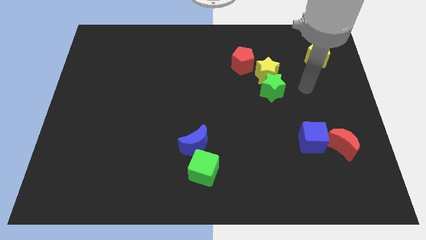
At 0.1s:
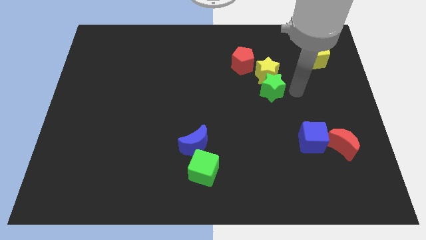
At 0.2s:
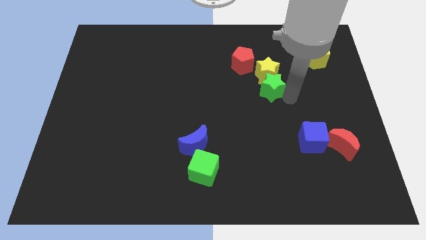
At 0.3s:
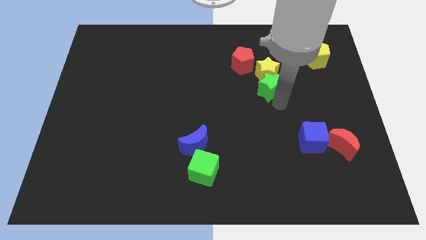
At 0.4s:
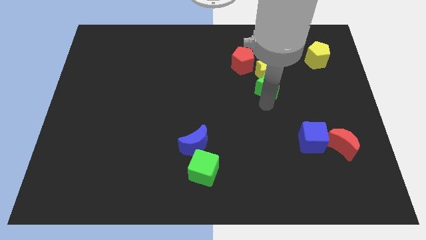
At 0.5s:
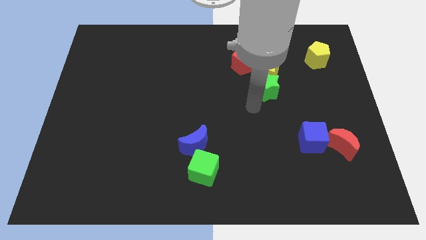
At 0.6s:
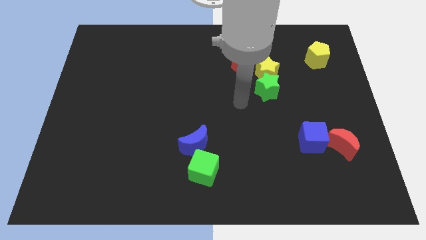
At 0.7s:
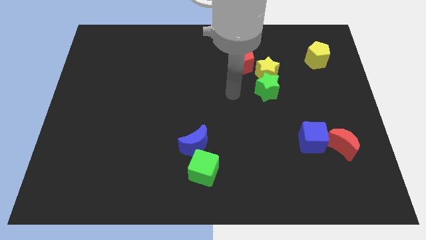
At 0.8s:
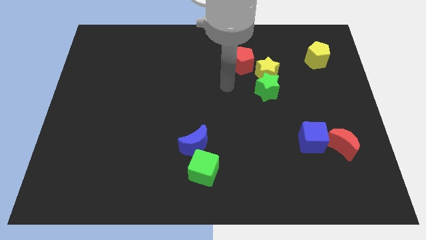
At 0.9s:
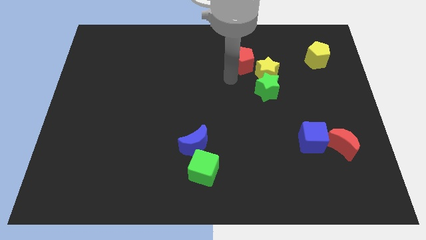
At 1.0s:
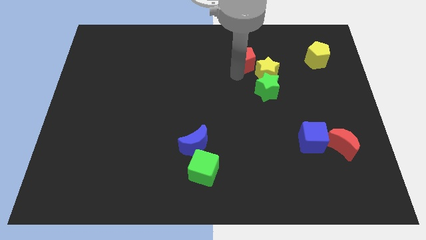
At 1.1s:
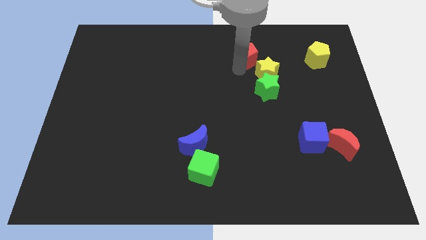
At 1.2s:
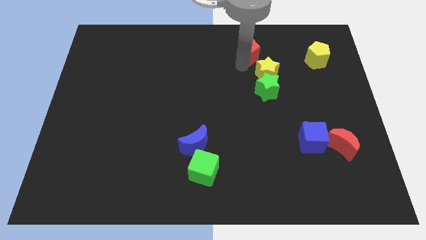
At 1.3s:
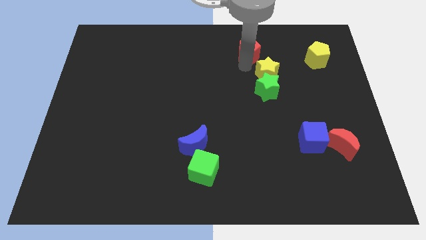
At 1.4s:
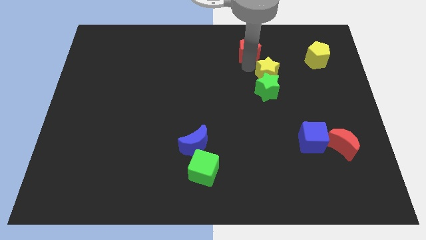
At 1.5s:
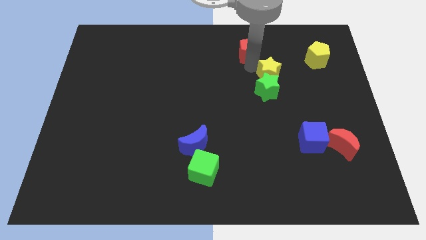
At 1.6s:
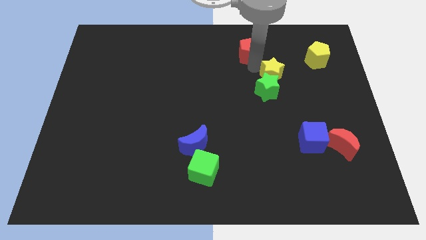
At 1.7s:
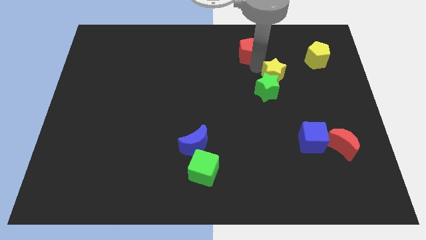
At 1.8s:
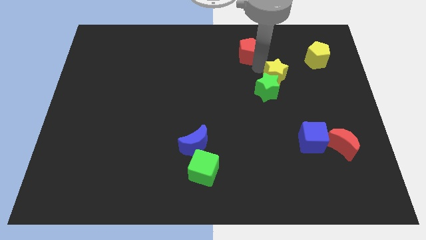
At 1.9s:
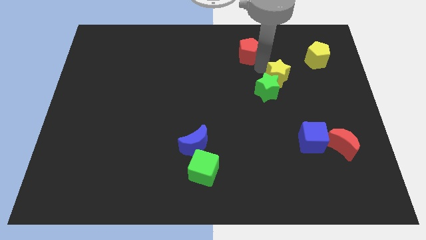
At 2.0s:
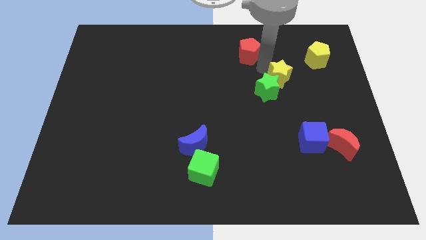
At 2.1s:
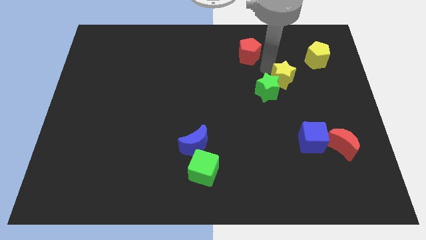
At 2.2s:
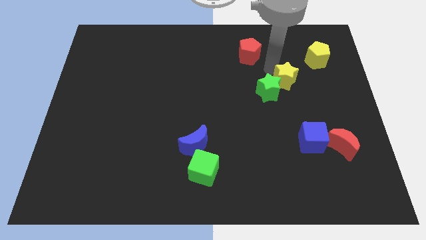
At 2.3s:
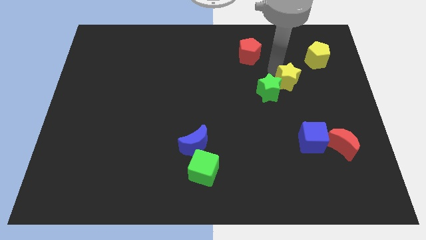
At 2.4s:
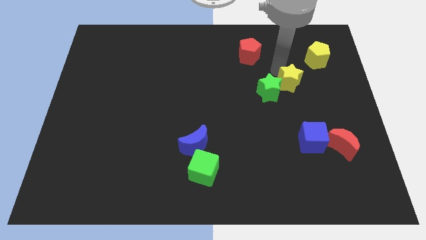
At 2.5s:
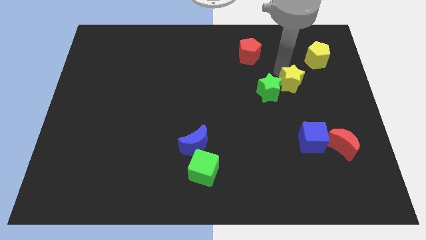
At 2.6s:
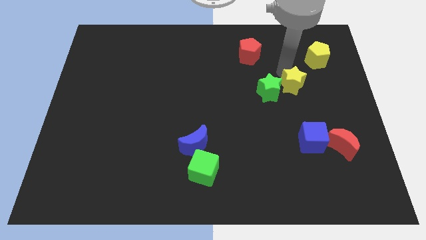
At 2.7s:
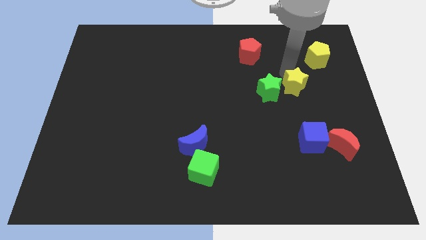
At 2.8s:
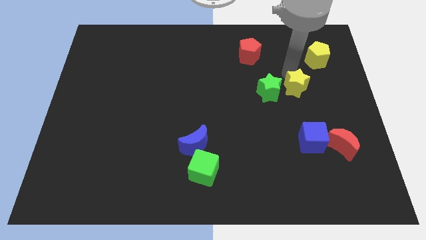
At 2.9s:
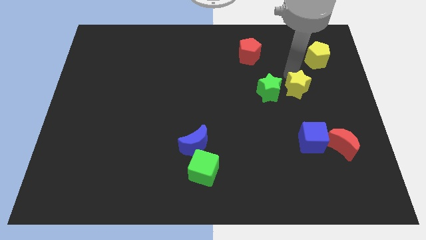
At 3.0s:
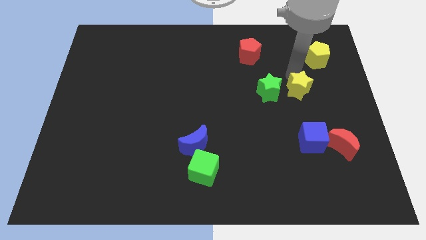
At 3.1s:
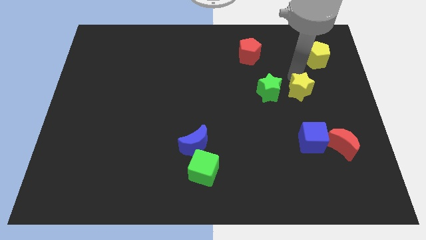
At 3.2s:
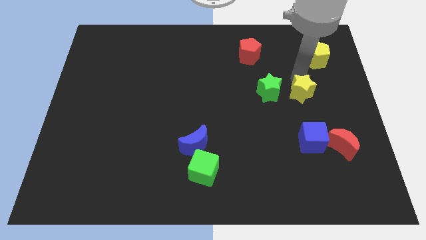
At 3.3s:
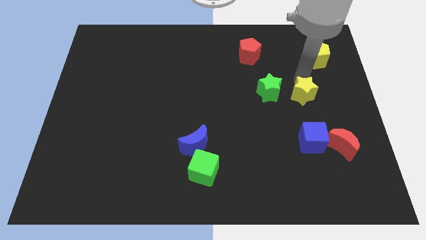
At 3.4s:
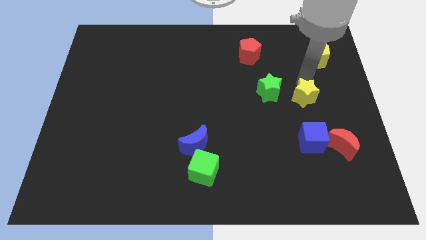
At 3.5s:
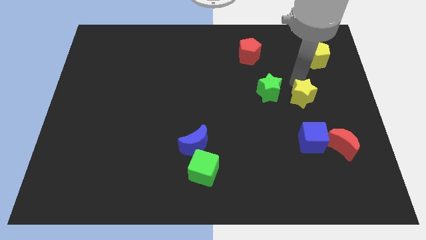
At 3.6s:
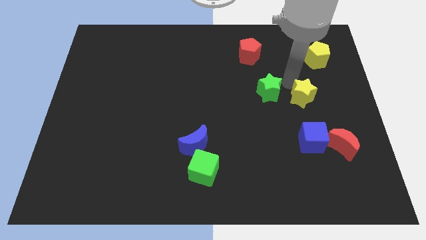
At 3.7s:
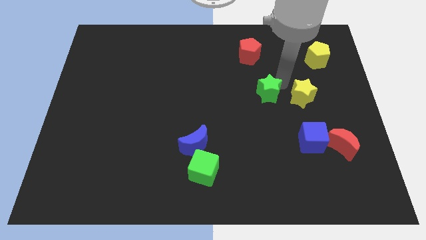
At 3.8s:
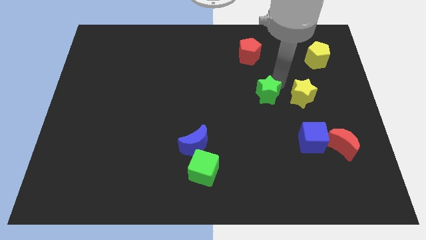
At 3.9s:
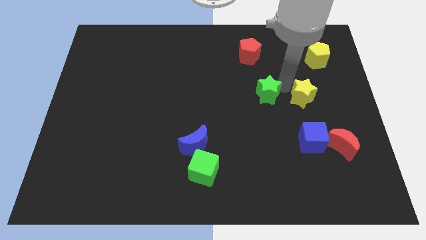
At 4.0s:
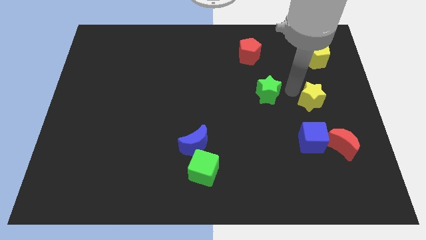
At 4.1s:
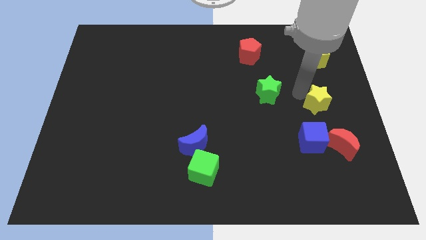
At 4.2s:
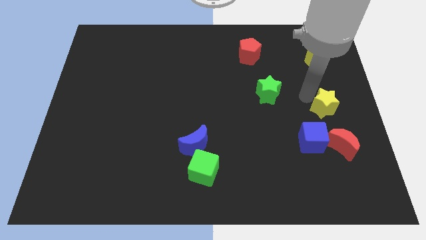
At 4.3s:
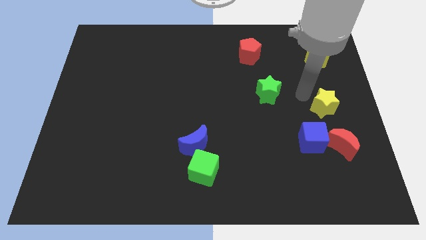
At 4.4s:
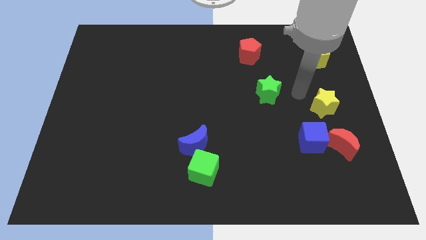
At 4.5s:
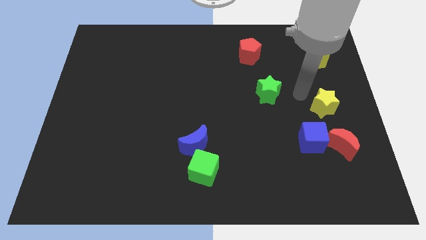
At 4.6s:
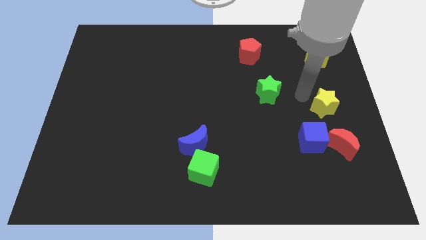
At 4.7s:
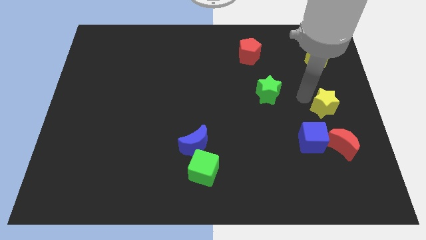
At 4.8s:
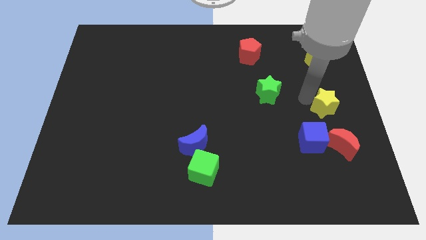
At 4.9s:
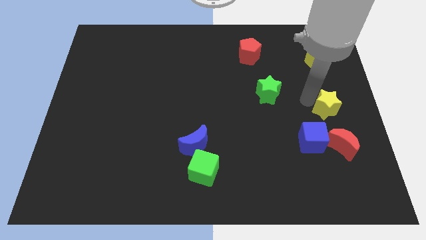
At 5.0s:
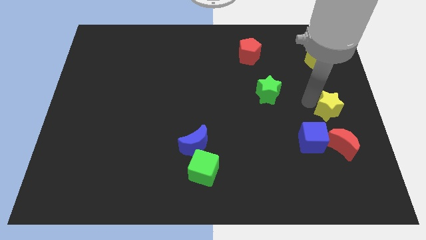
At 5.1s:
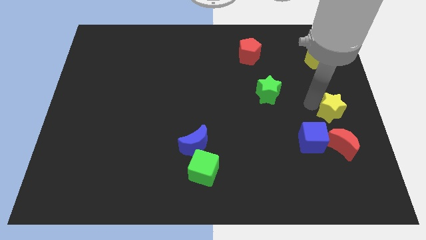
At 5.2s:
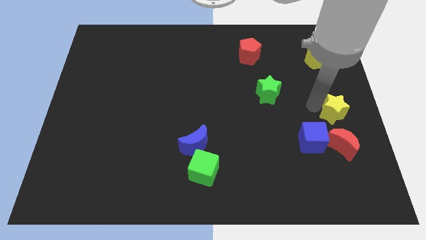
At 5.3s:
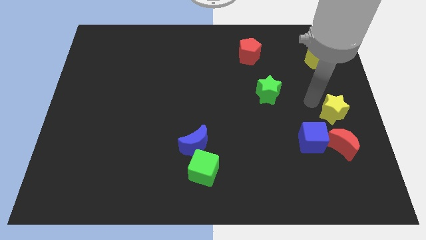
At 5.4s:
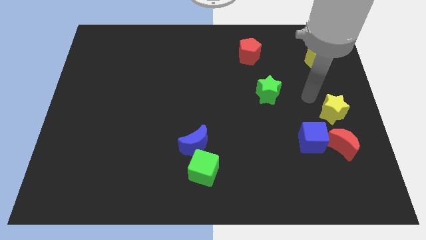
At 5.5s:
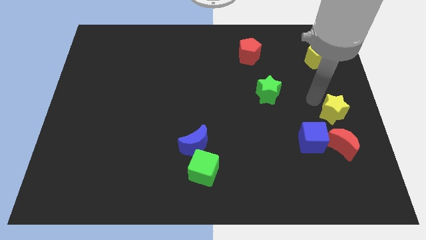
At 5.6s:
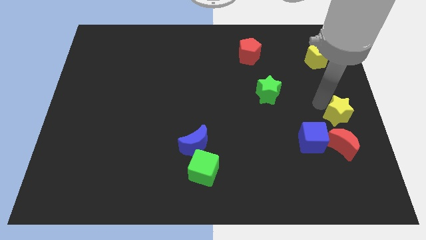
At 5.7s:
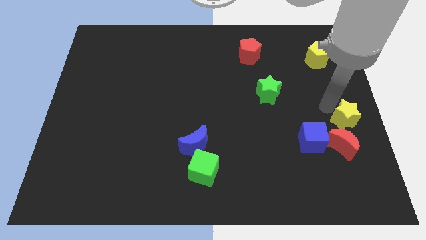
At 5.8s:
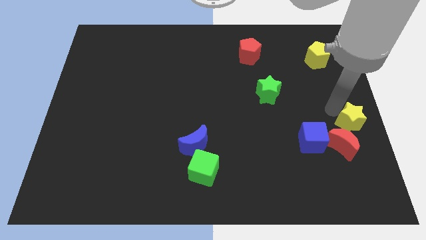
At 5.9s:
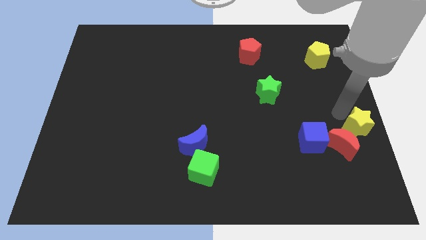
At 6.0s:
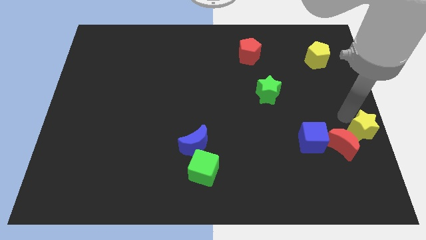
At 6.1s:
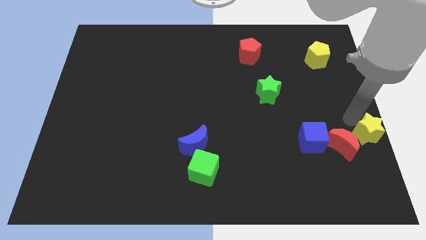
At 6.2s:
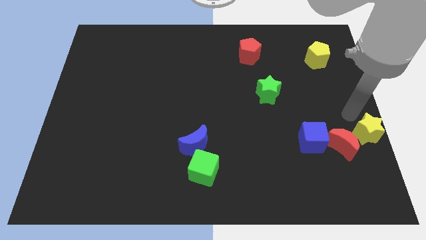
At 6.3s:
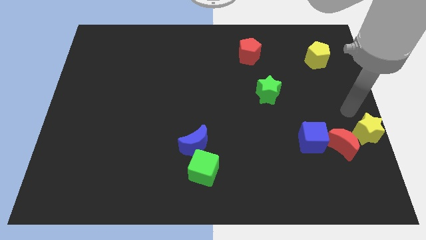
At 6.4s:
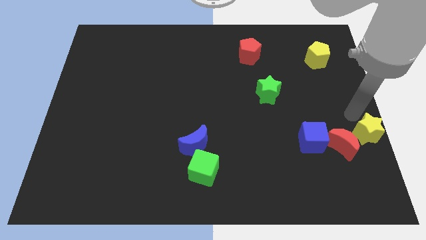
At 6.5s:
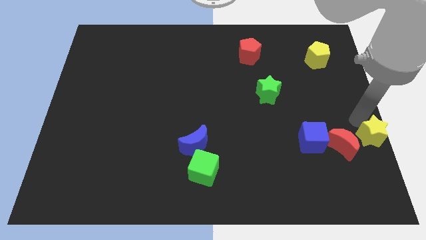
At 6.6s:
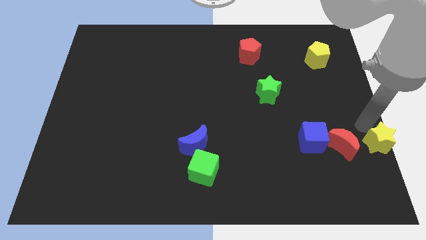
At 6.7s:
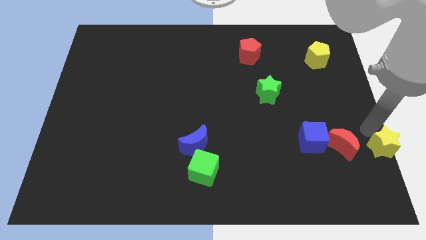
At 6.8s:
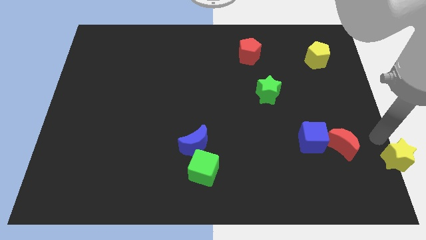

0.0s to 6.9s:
slide the yellow star to the bottom right corner
